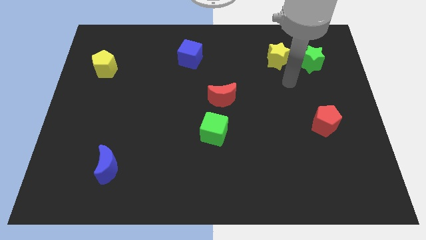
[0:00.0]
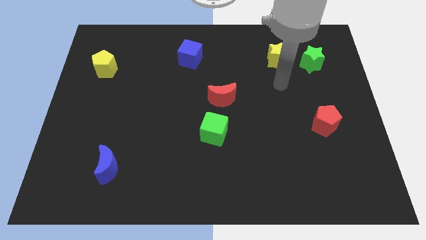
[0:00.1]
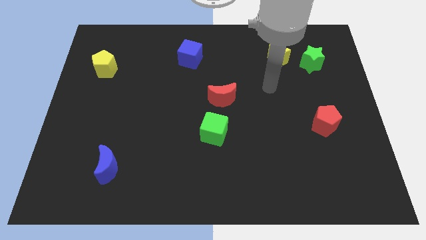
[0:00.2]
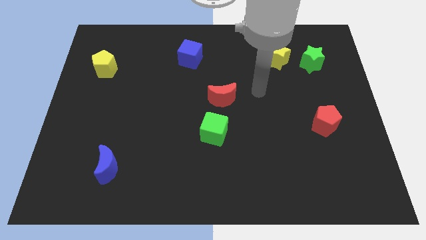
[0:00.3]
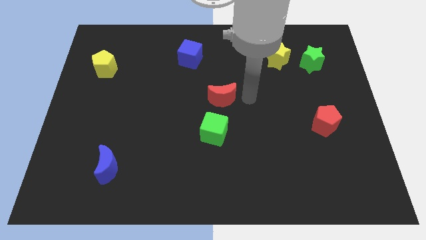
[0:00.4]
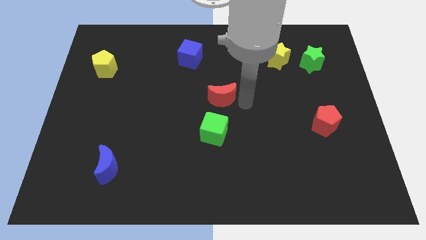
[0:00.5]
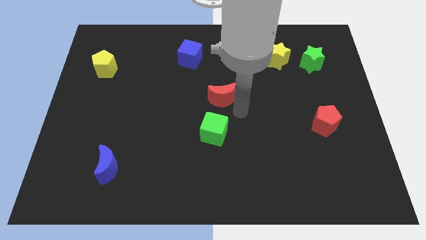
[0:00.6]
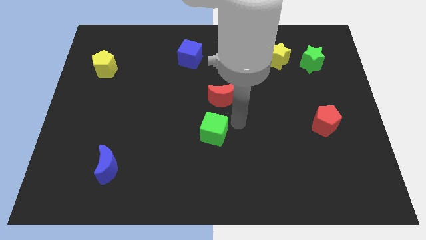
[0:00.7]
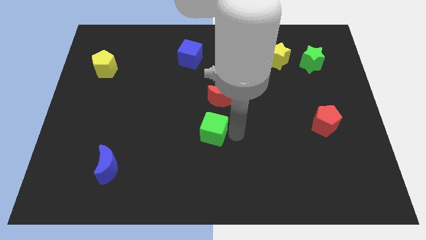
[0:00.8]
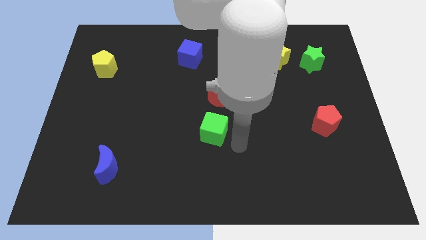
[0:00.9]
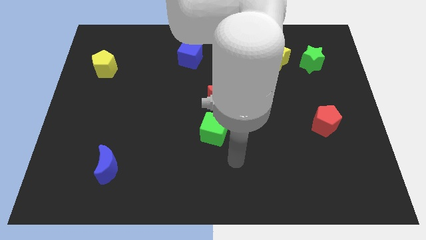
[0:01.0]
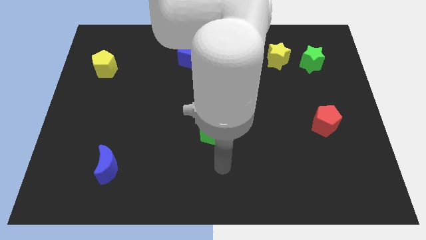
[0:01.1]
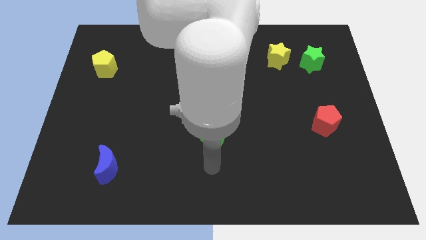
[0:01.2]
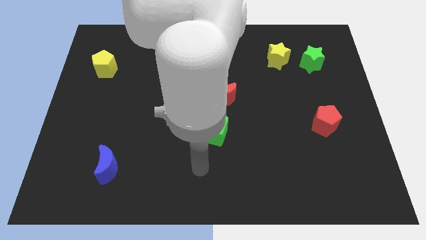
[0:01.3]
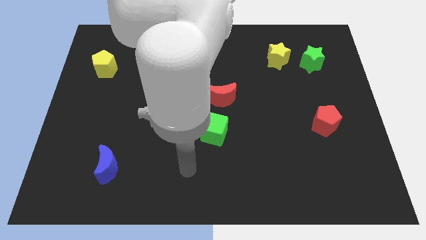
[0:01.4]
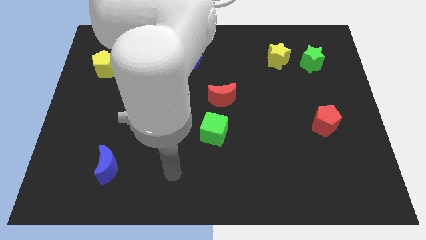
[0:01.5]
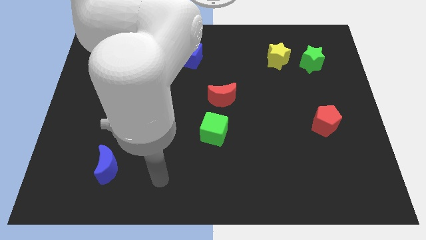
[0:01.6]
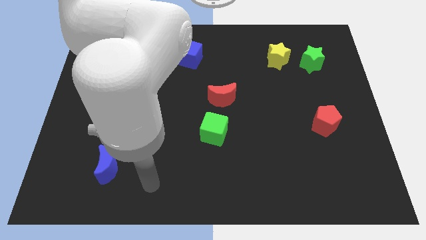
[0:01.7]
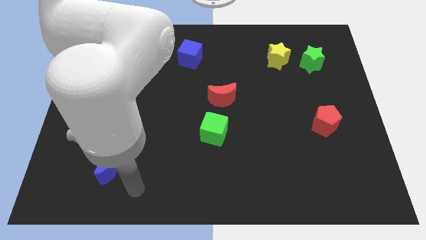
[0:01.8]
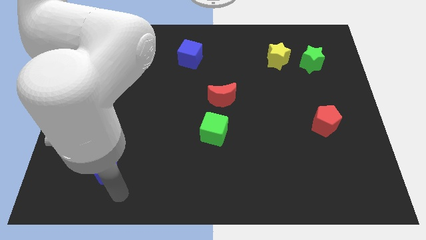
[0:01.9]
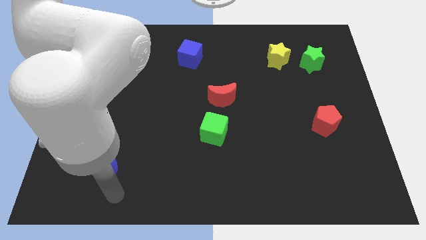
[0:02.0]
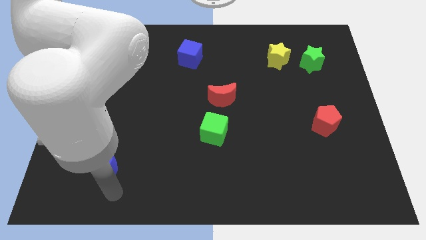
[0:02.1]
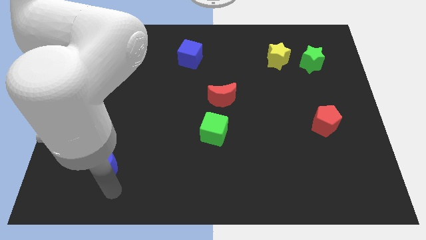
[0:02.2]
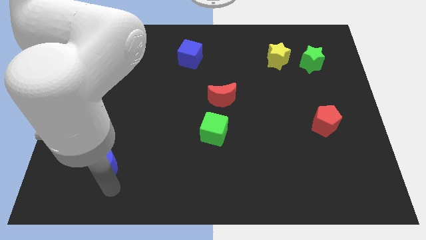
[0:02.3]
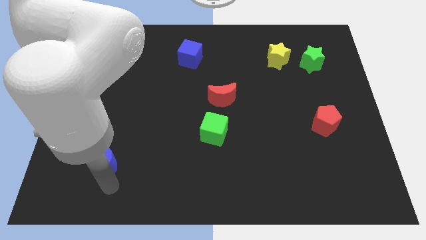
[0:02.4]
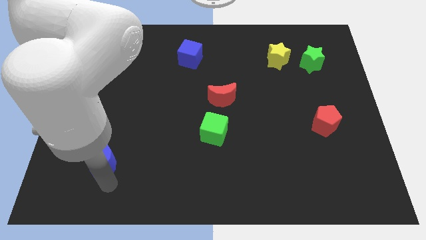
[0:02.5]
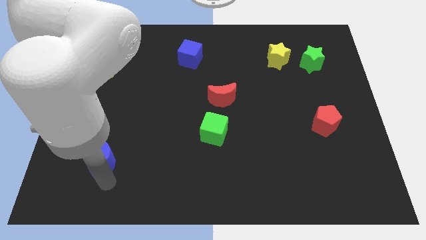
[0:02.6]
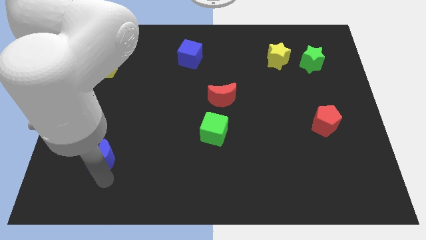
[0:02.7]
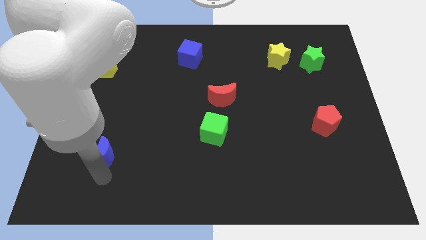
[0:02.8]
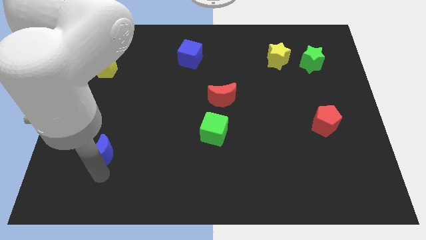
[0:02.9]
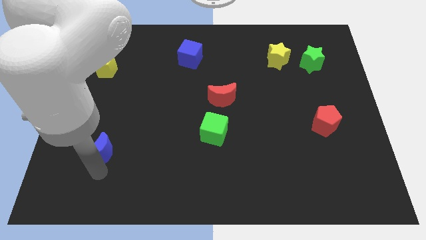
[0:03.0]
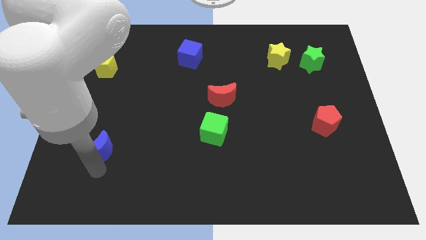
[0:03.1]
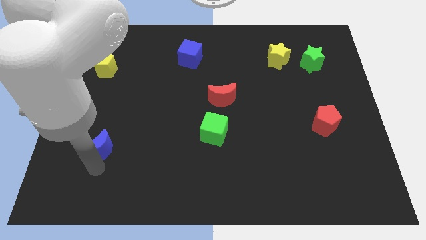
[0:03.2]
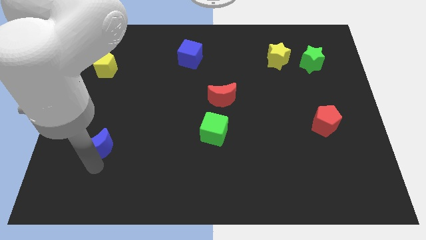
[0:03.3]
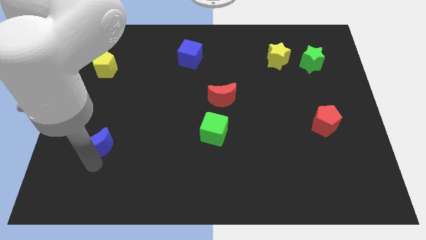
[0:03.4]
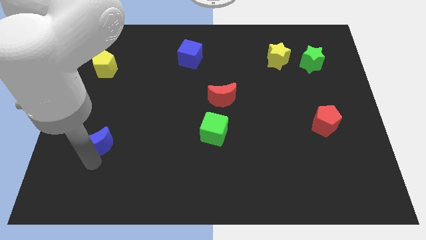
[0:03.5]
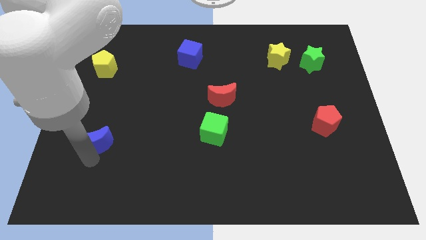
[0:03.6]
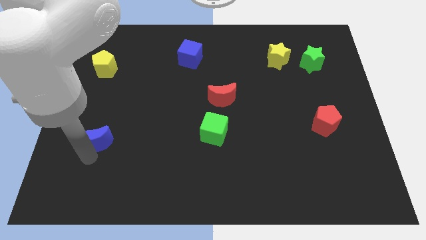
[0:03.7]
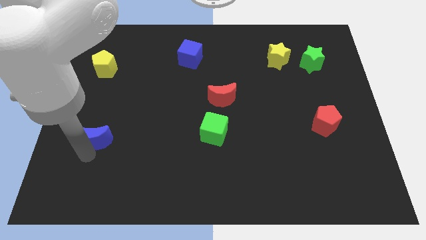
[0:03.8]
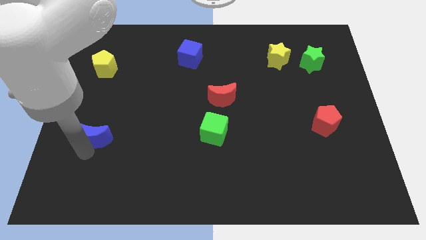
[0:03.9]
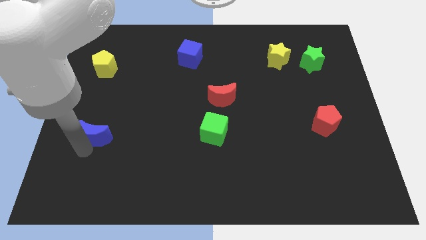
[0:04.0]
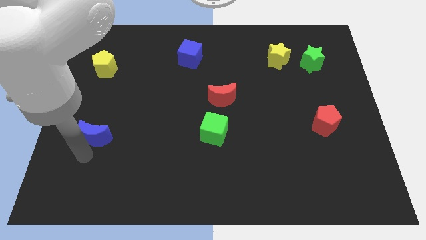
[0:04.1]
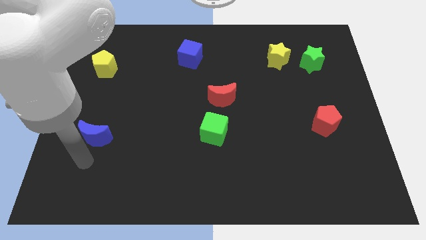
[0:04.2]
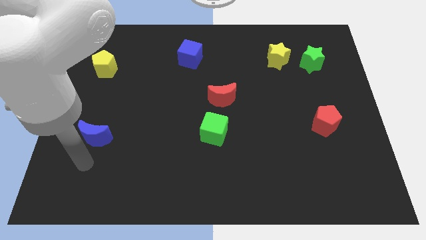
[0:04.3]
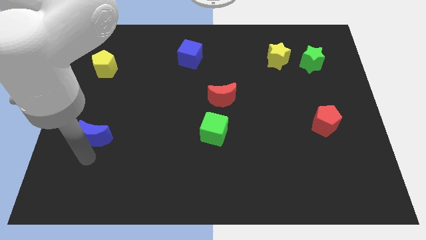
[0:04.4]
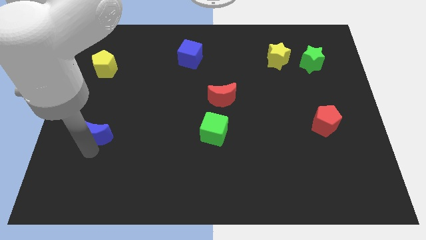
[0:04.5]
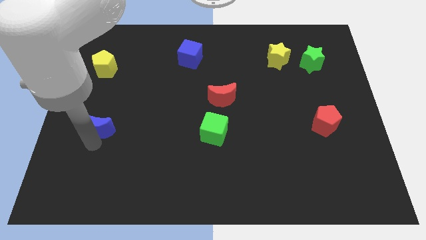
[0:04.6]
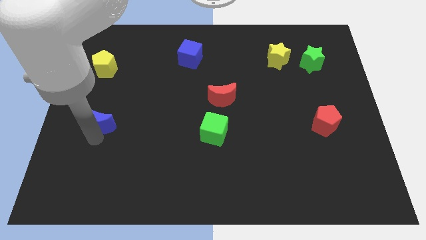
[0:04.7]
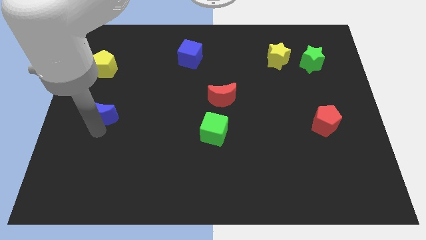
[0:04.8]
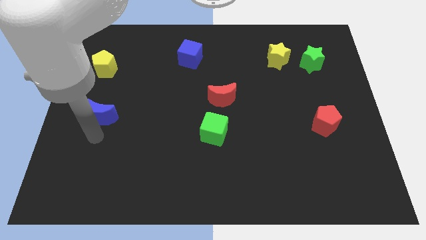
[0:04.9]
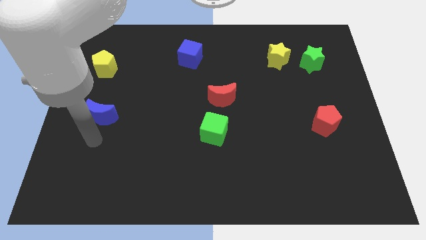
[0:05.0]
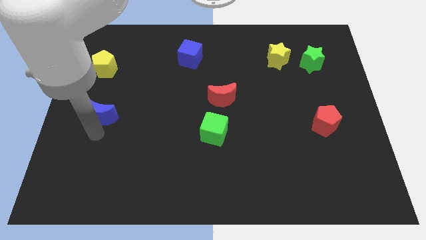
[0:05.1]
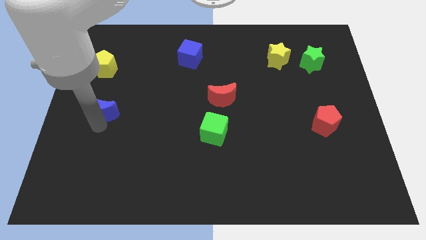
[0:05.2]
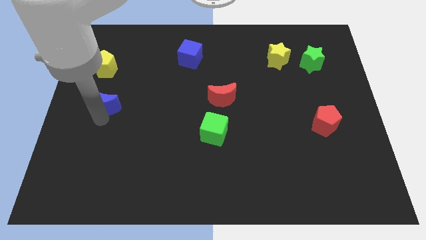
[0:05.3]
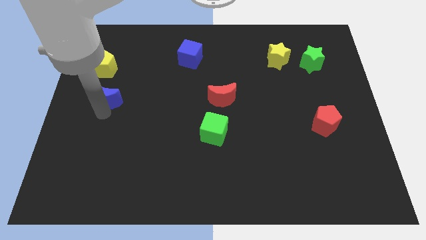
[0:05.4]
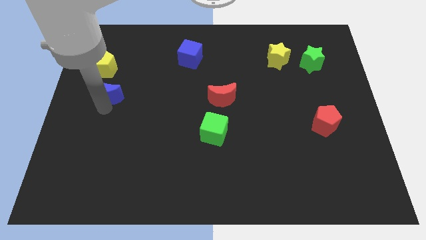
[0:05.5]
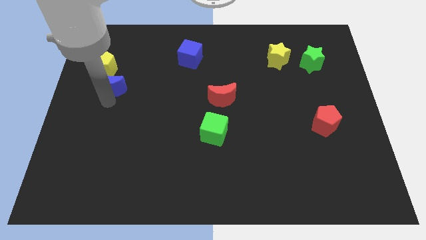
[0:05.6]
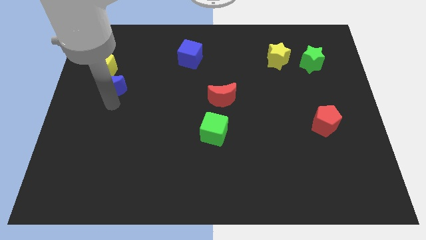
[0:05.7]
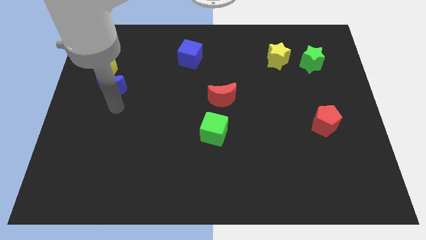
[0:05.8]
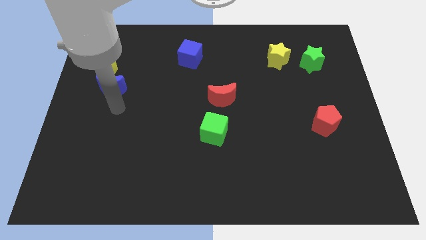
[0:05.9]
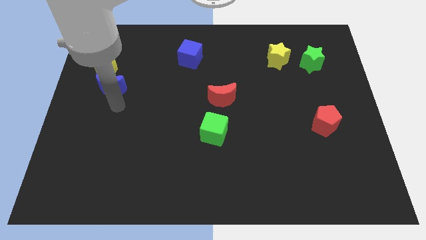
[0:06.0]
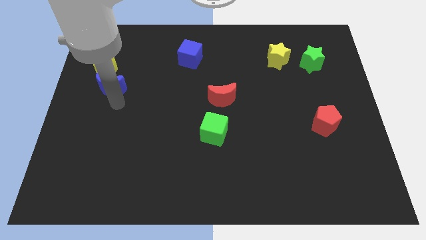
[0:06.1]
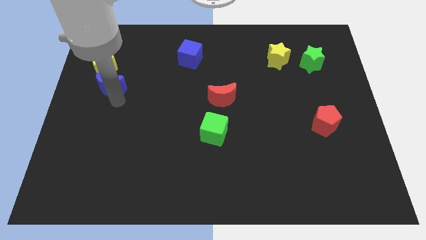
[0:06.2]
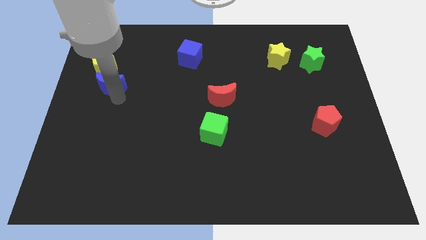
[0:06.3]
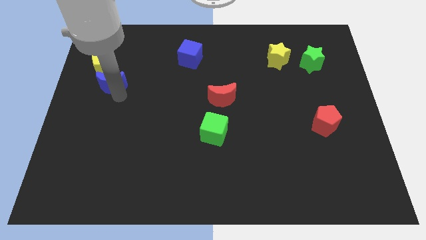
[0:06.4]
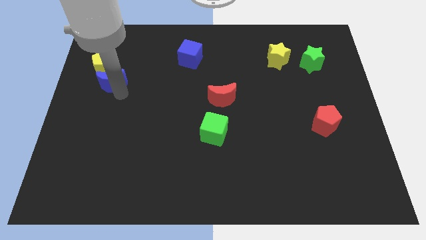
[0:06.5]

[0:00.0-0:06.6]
slide the blue moon next to the yellow pentagon

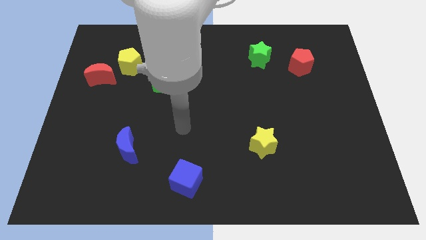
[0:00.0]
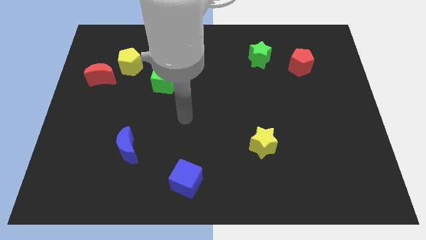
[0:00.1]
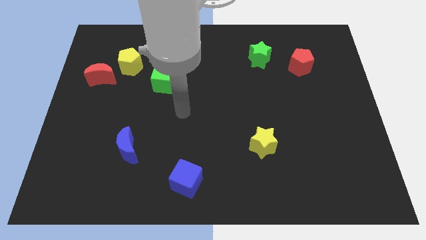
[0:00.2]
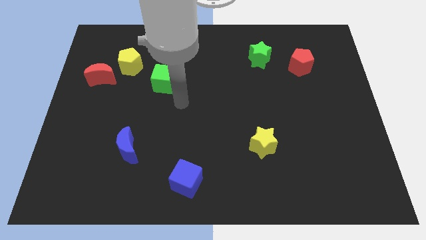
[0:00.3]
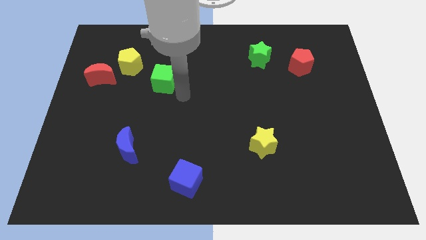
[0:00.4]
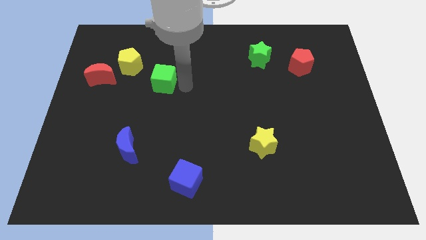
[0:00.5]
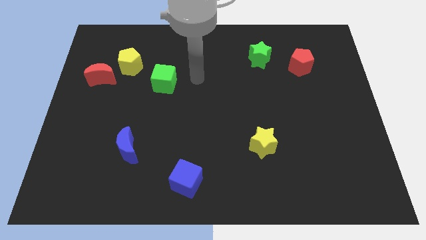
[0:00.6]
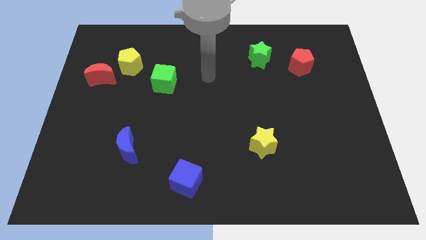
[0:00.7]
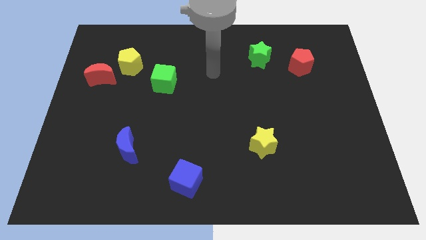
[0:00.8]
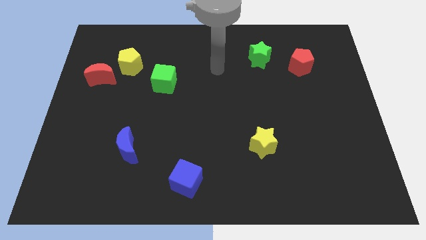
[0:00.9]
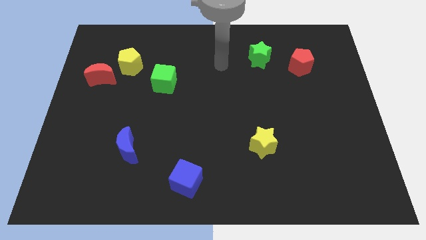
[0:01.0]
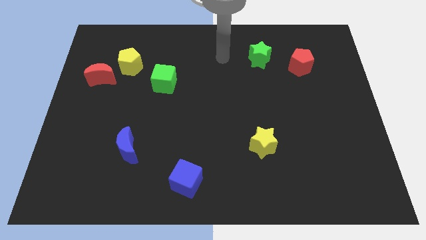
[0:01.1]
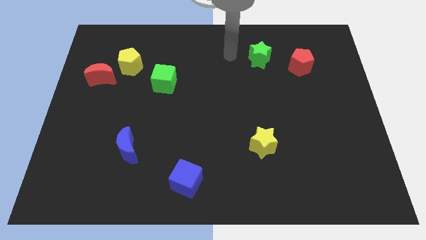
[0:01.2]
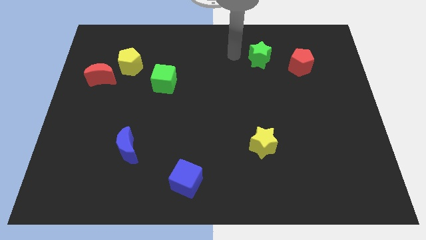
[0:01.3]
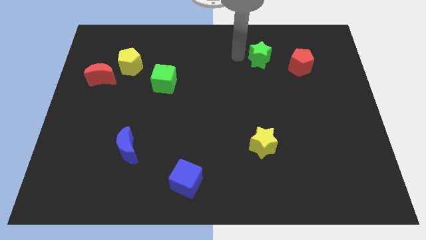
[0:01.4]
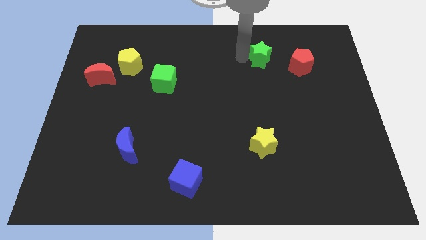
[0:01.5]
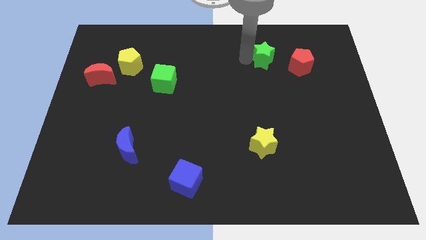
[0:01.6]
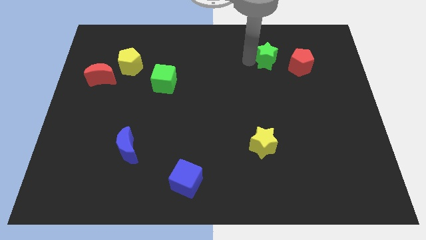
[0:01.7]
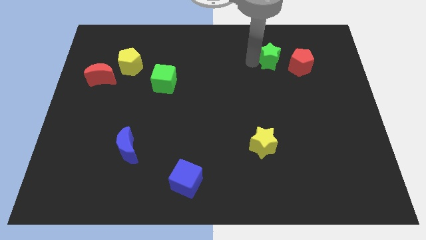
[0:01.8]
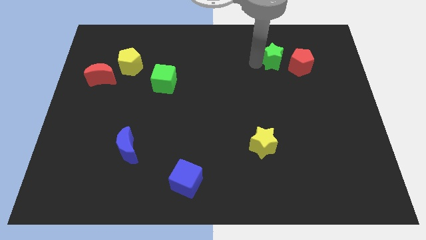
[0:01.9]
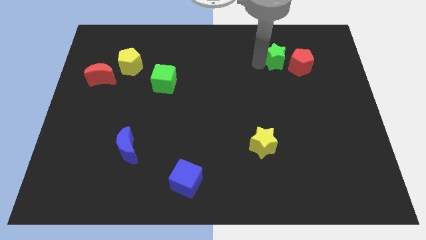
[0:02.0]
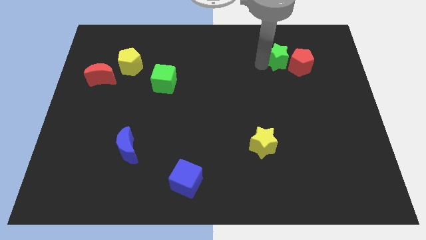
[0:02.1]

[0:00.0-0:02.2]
push the green star to the red pentagon
